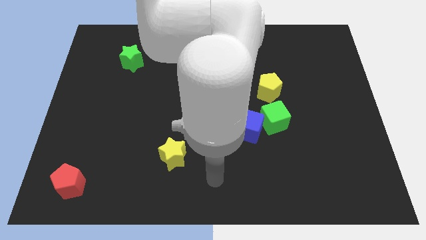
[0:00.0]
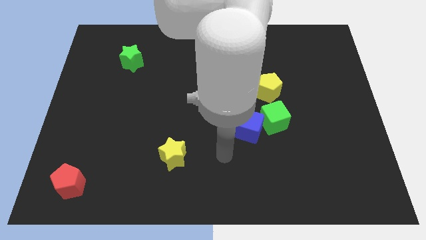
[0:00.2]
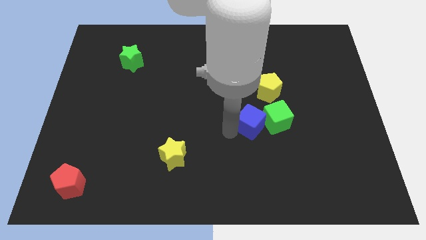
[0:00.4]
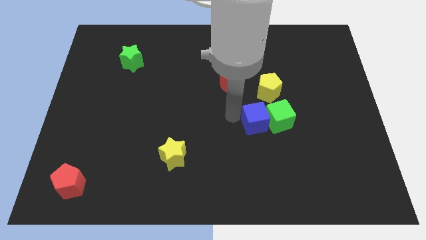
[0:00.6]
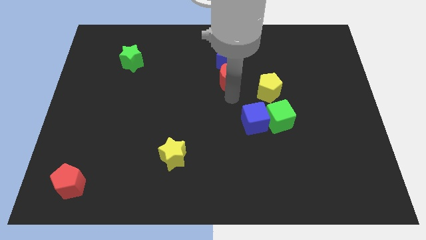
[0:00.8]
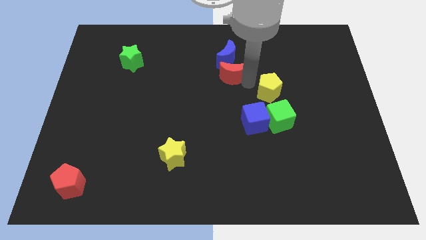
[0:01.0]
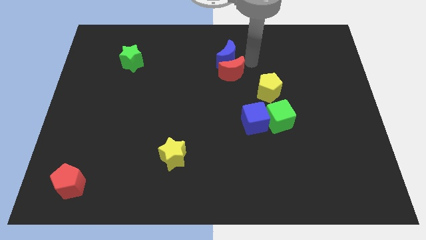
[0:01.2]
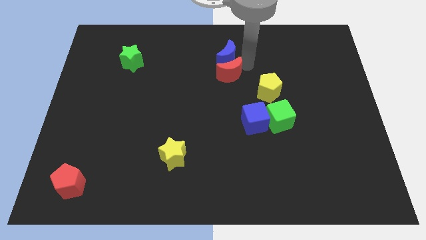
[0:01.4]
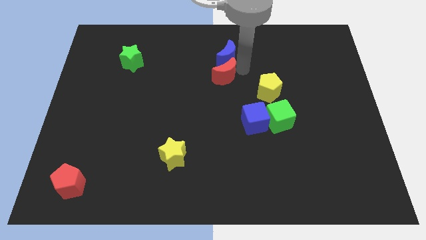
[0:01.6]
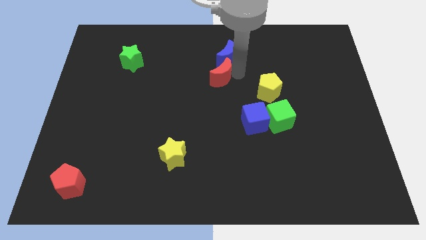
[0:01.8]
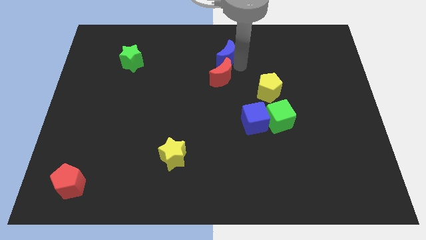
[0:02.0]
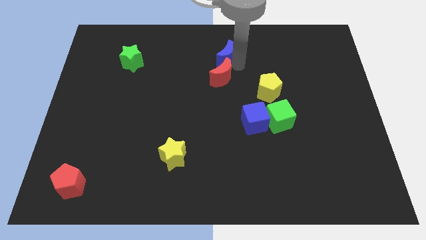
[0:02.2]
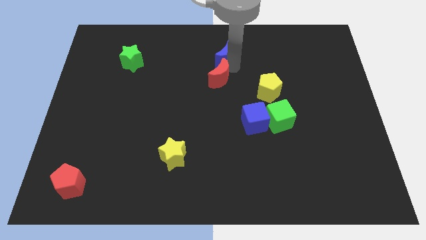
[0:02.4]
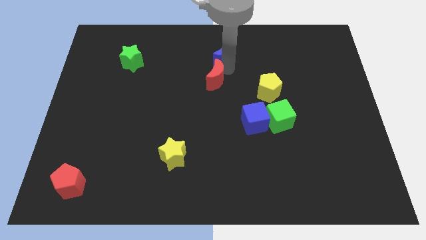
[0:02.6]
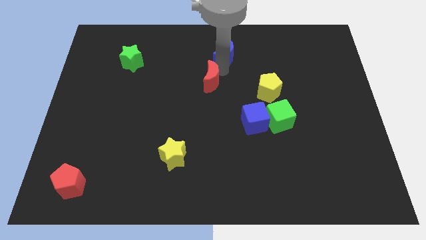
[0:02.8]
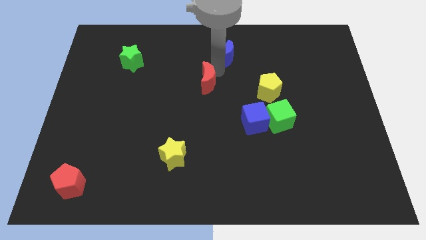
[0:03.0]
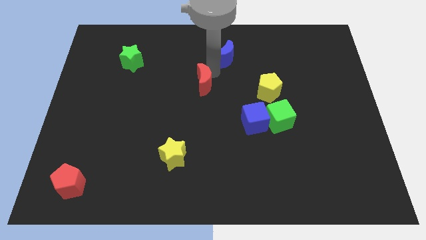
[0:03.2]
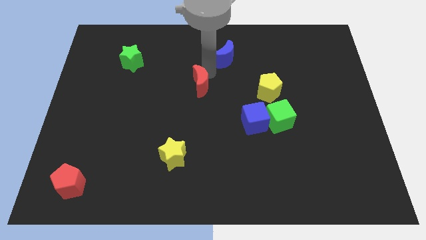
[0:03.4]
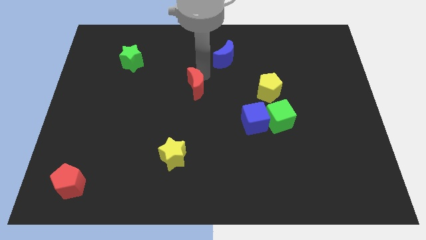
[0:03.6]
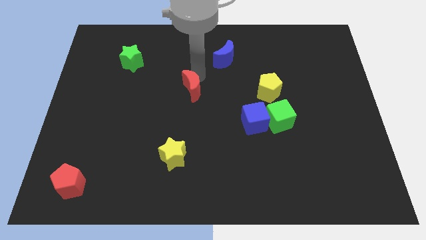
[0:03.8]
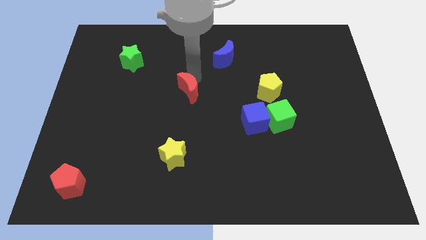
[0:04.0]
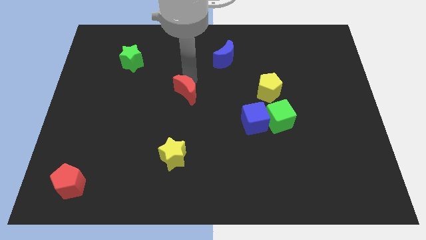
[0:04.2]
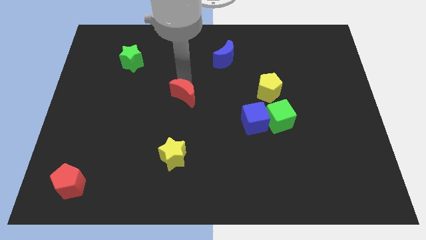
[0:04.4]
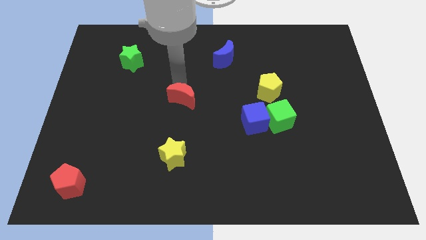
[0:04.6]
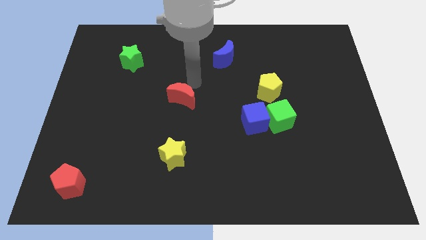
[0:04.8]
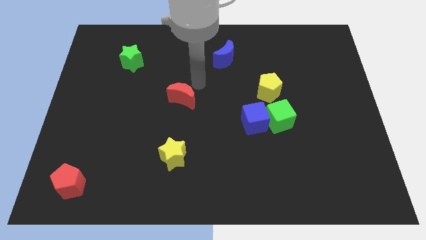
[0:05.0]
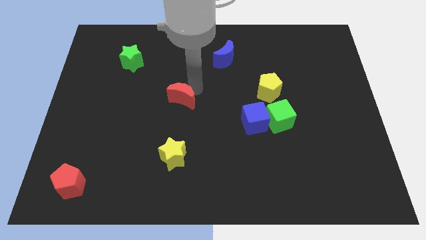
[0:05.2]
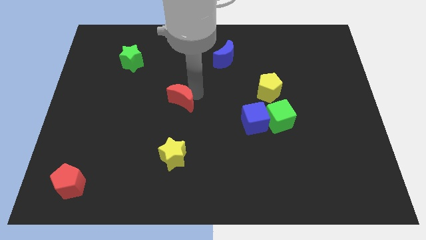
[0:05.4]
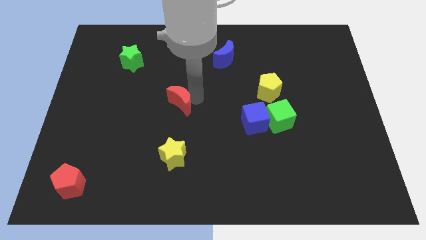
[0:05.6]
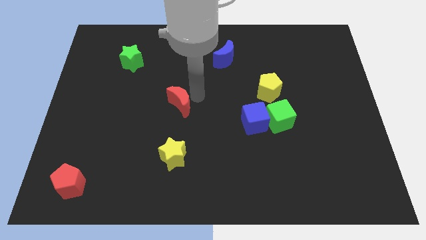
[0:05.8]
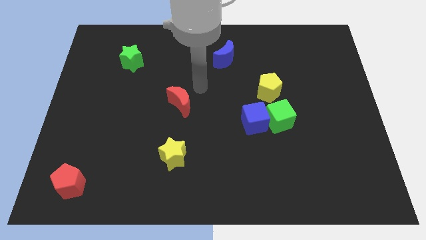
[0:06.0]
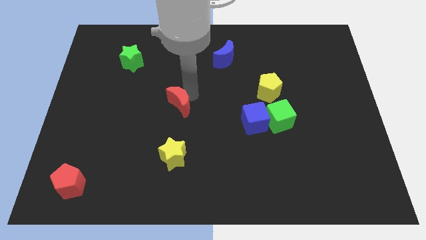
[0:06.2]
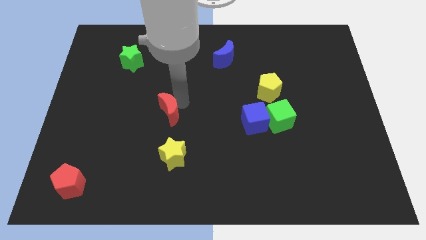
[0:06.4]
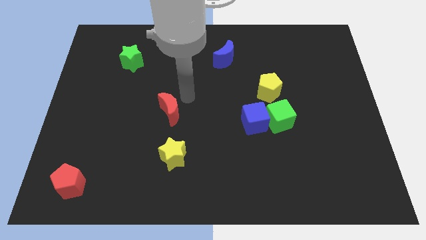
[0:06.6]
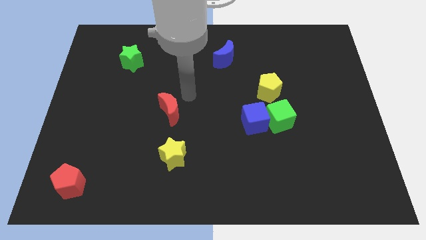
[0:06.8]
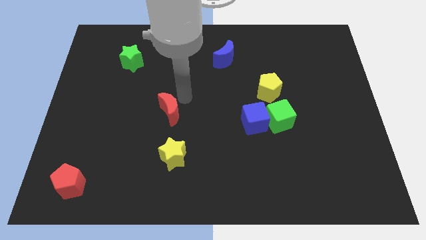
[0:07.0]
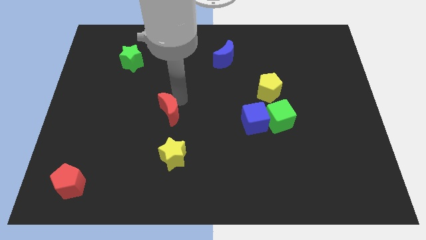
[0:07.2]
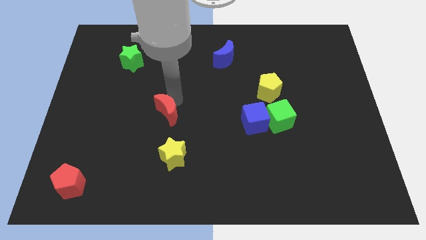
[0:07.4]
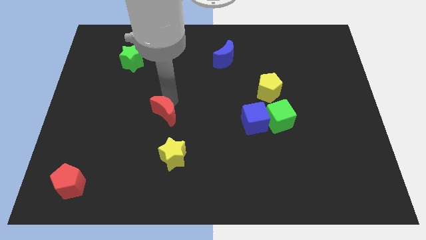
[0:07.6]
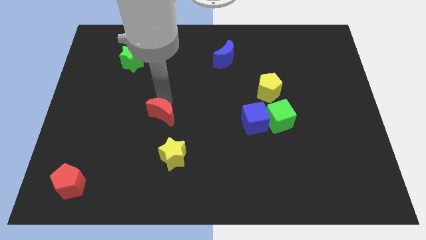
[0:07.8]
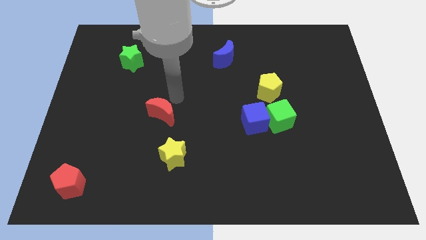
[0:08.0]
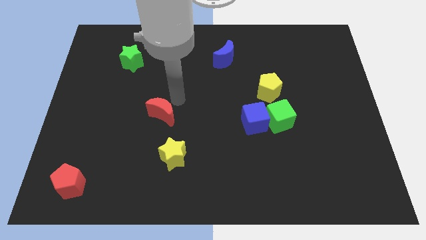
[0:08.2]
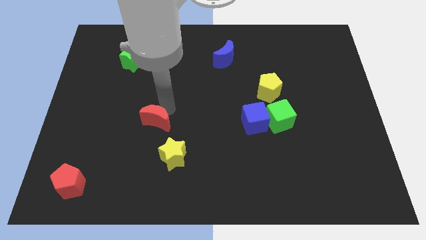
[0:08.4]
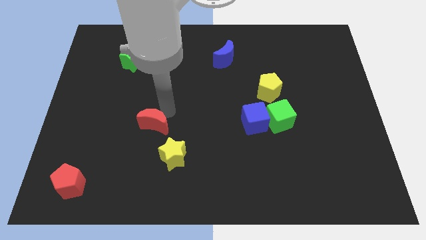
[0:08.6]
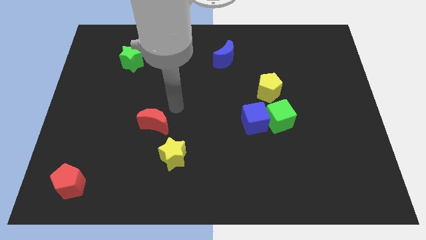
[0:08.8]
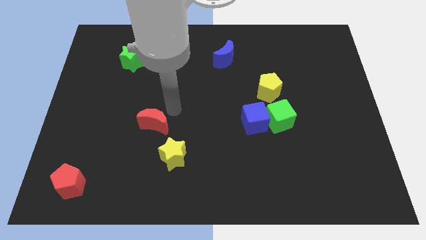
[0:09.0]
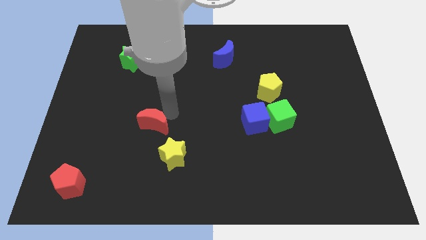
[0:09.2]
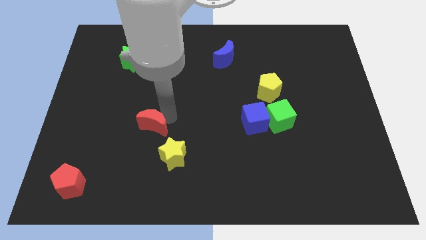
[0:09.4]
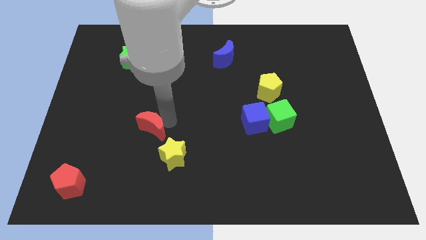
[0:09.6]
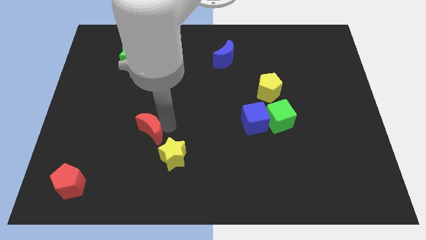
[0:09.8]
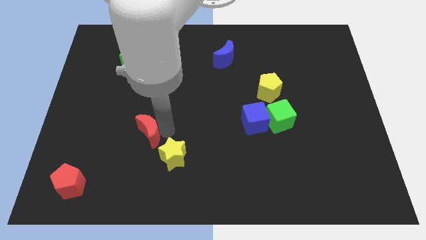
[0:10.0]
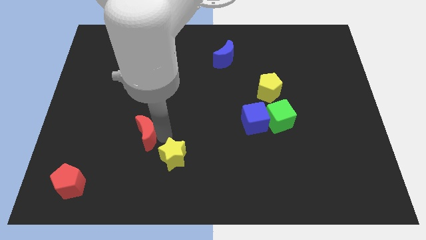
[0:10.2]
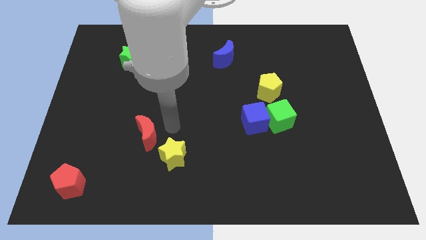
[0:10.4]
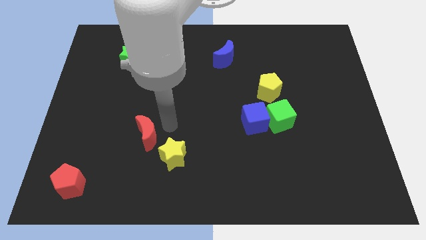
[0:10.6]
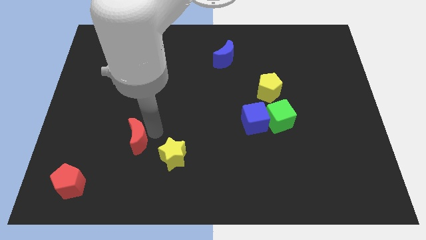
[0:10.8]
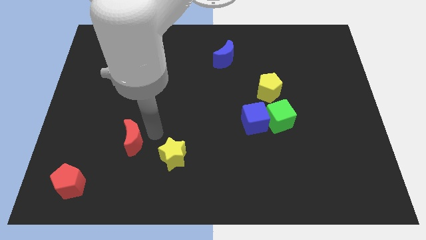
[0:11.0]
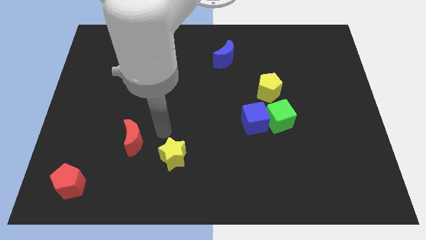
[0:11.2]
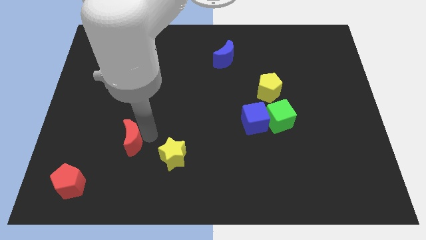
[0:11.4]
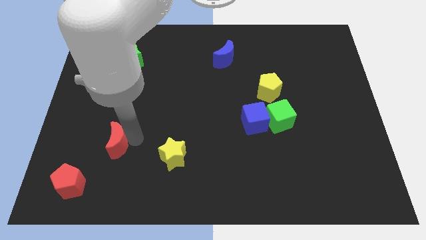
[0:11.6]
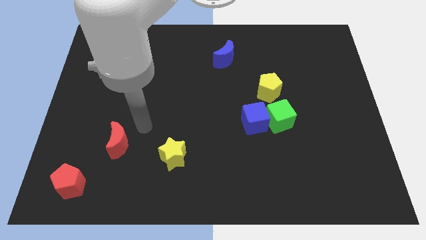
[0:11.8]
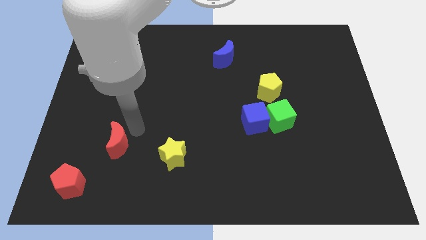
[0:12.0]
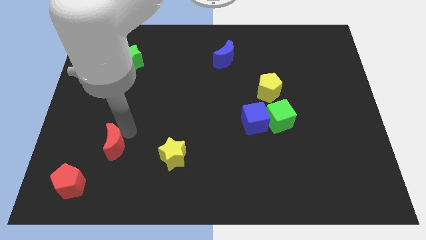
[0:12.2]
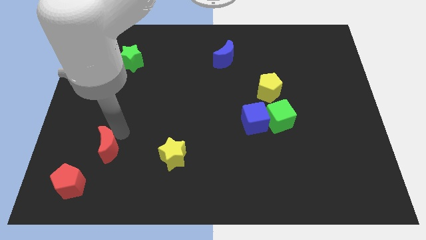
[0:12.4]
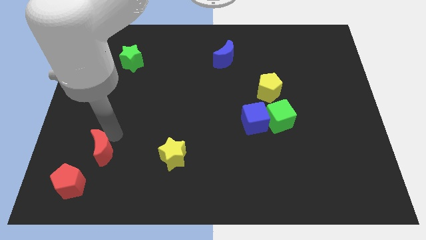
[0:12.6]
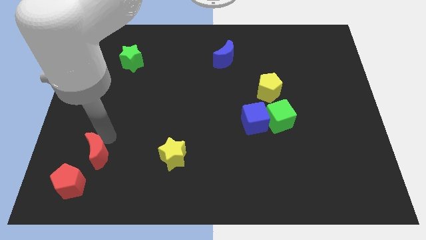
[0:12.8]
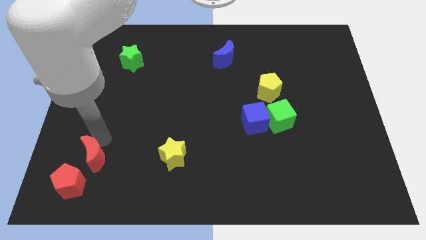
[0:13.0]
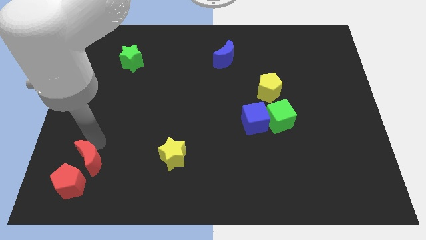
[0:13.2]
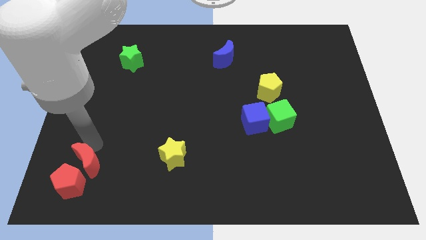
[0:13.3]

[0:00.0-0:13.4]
push the red moon close to the red pentagon
